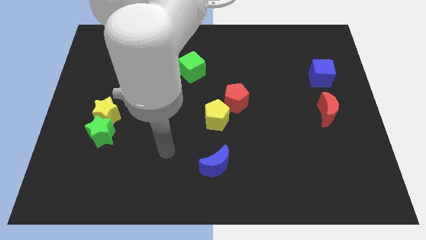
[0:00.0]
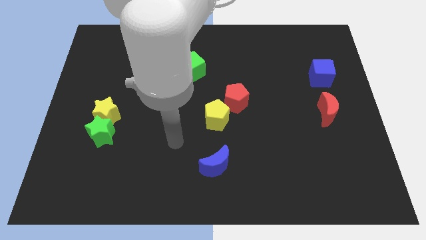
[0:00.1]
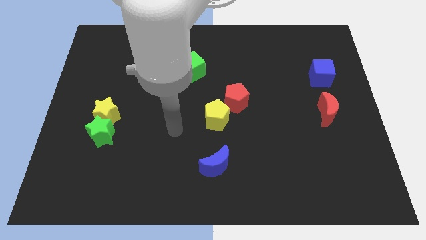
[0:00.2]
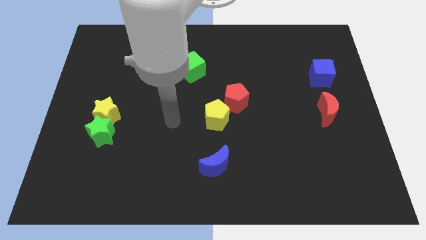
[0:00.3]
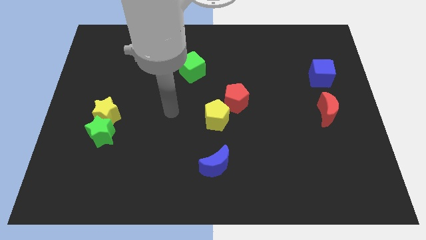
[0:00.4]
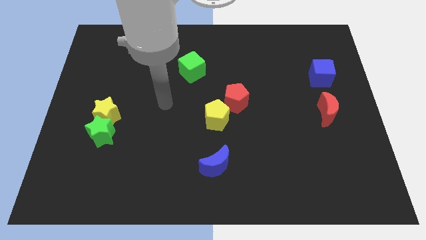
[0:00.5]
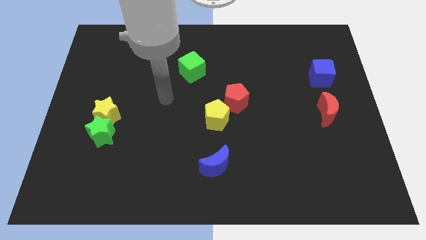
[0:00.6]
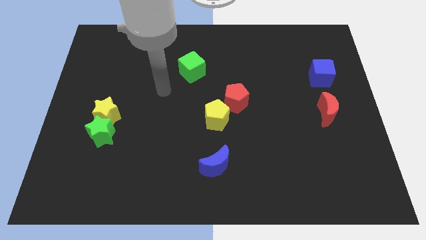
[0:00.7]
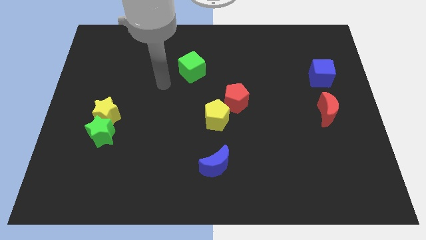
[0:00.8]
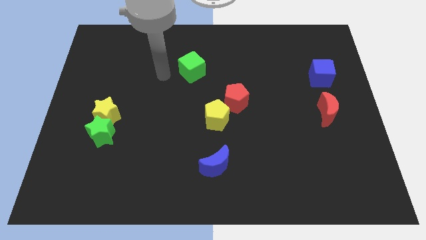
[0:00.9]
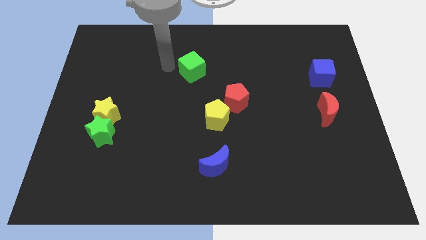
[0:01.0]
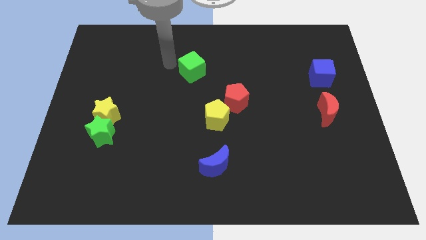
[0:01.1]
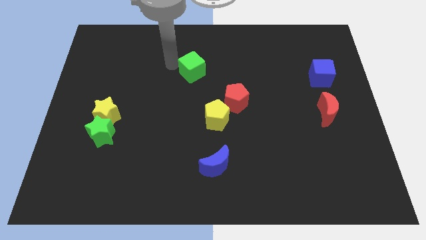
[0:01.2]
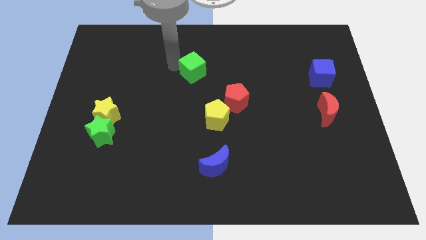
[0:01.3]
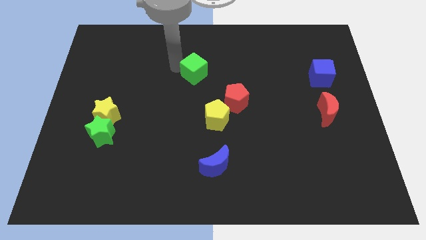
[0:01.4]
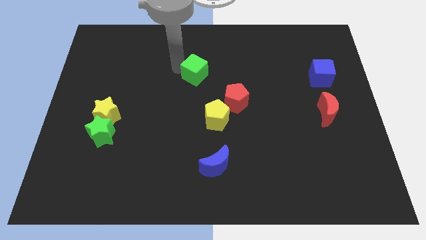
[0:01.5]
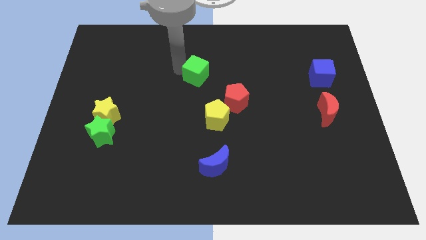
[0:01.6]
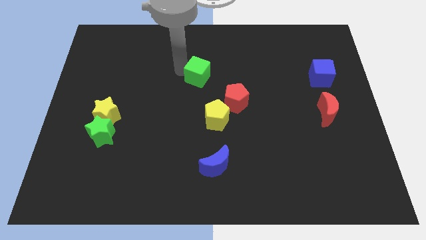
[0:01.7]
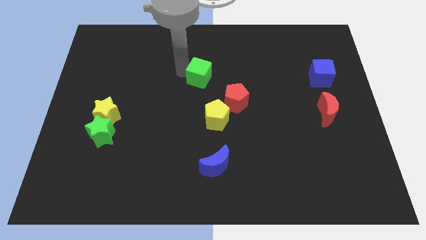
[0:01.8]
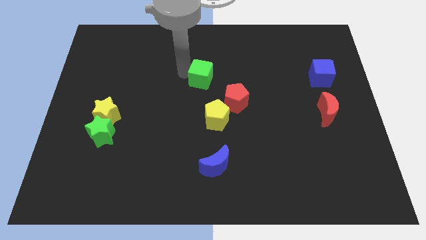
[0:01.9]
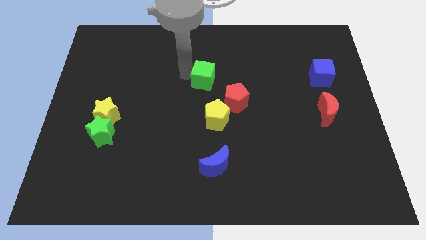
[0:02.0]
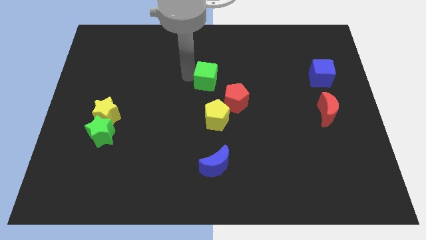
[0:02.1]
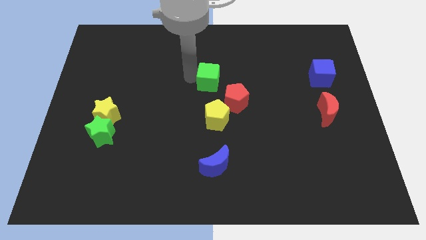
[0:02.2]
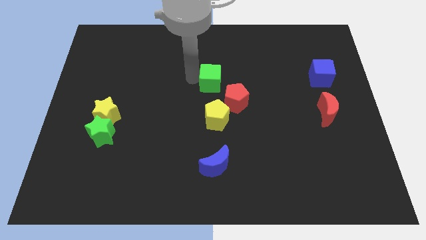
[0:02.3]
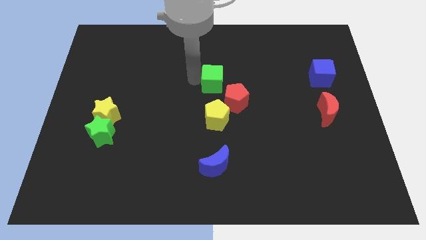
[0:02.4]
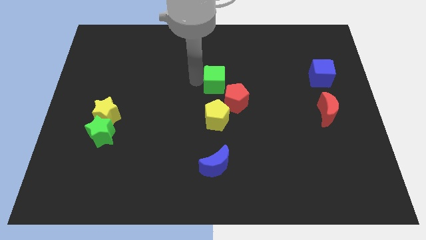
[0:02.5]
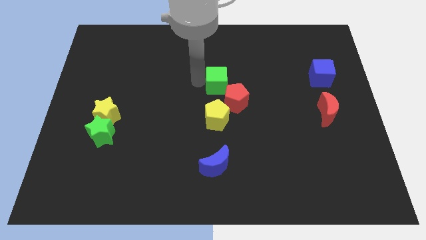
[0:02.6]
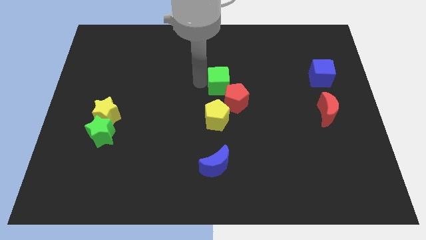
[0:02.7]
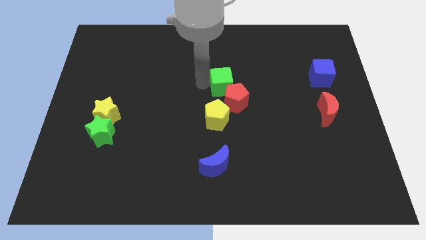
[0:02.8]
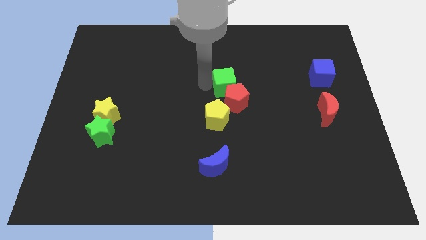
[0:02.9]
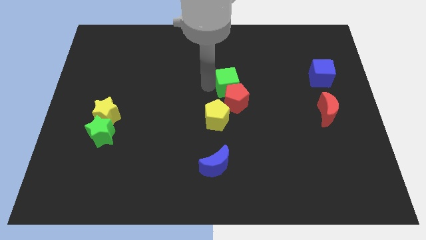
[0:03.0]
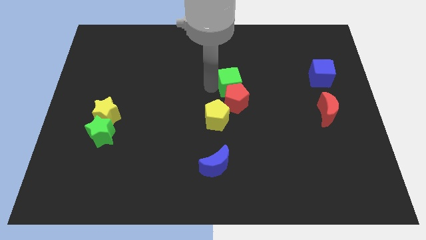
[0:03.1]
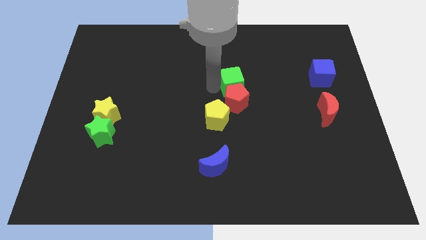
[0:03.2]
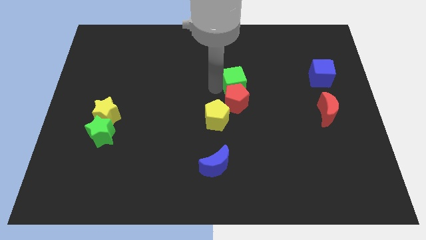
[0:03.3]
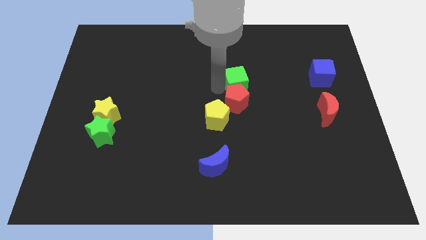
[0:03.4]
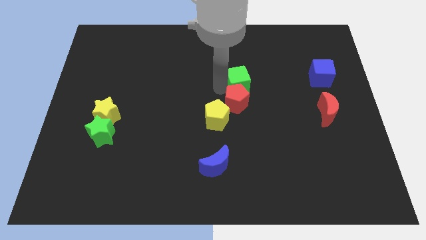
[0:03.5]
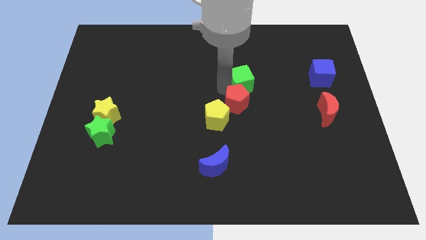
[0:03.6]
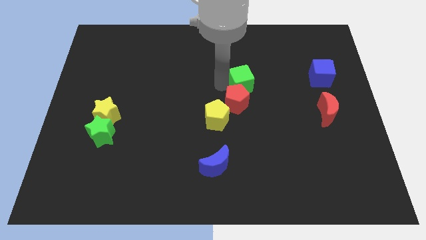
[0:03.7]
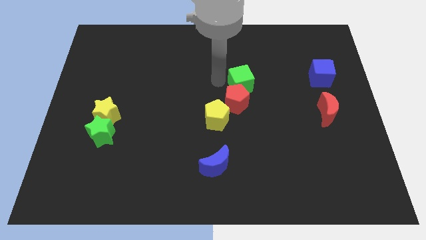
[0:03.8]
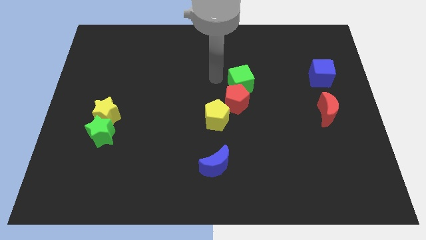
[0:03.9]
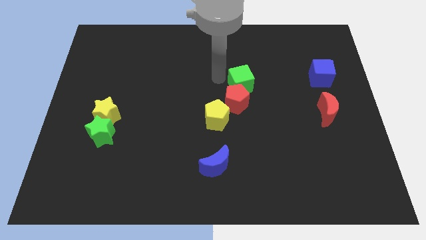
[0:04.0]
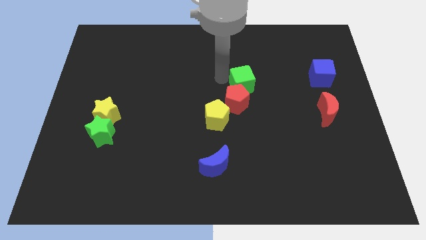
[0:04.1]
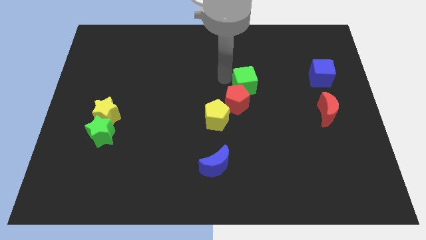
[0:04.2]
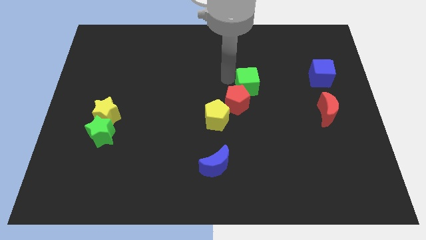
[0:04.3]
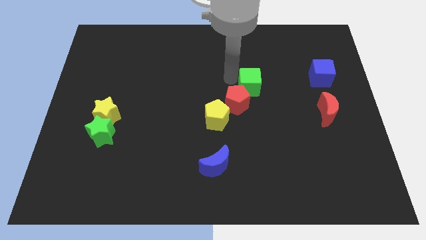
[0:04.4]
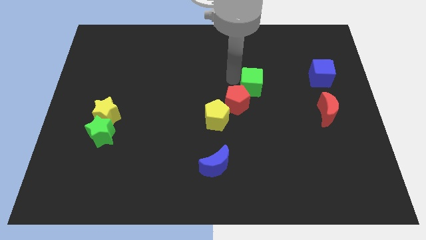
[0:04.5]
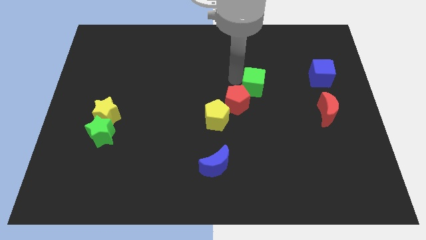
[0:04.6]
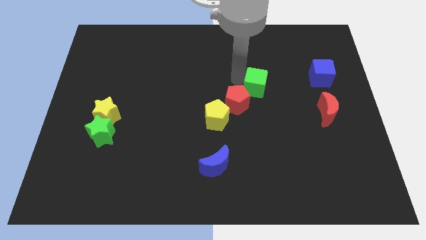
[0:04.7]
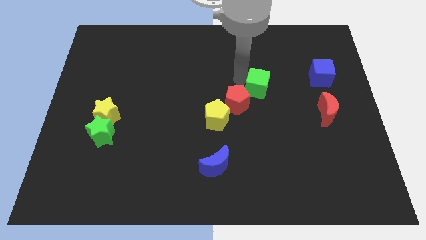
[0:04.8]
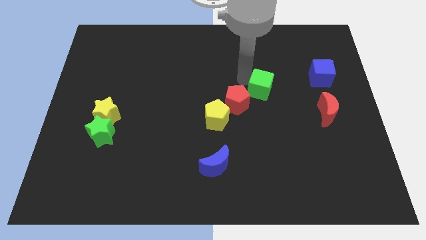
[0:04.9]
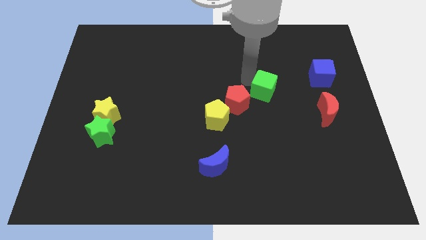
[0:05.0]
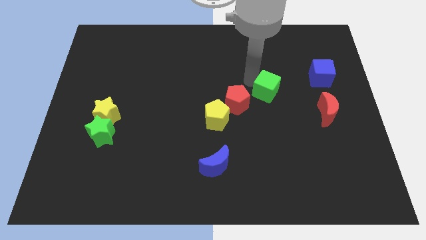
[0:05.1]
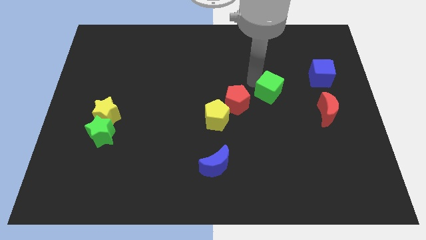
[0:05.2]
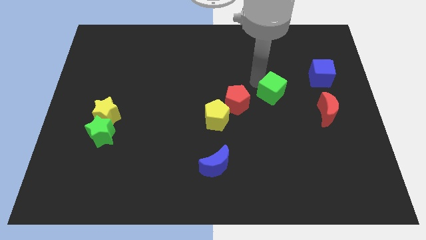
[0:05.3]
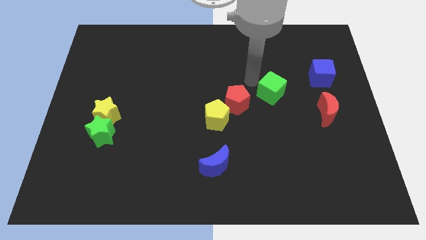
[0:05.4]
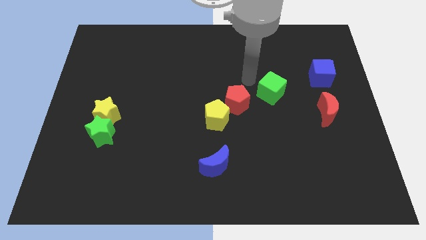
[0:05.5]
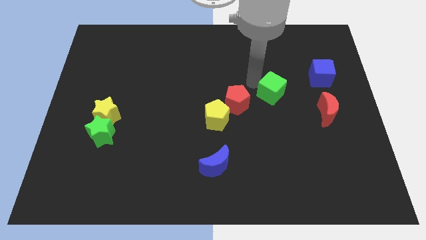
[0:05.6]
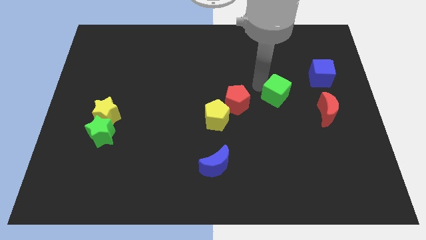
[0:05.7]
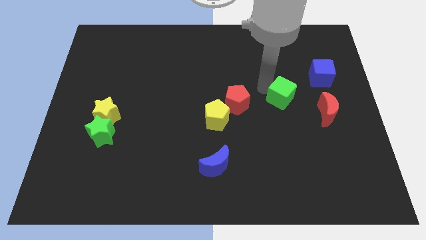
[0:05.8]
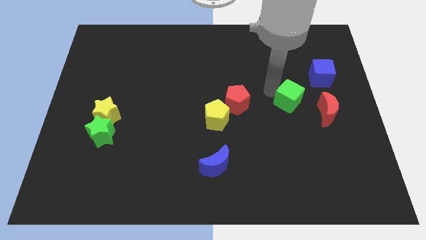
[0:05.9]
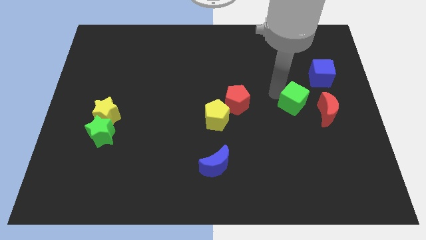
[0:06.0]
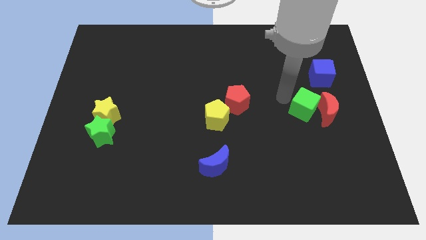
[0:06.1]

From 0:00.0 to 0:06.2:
push the green cube next to the red moon

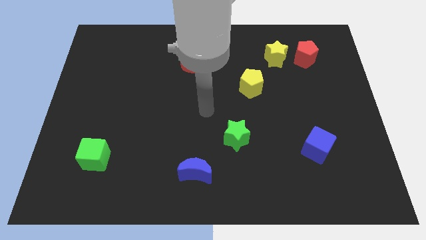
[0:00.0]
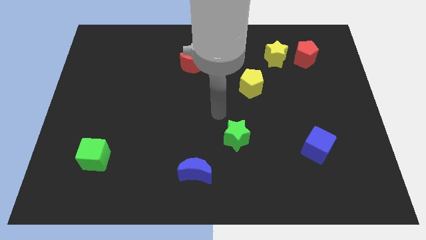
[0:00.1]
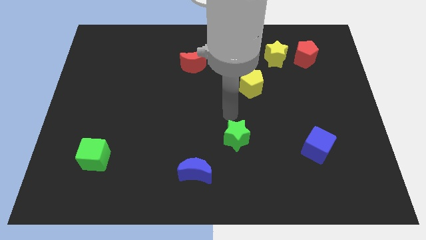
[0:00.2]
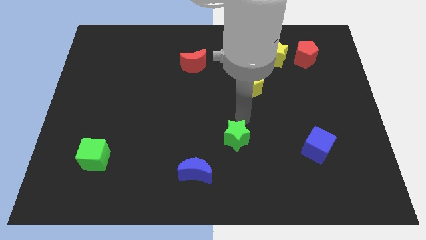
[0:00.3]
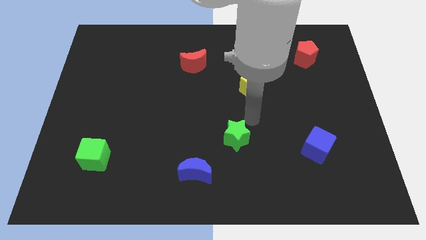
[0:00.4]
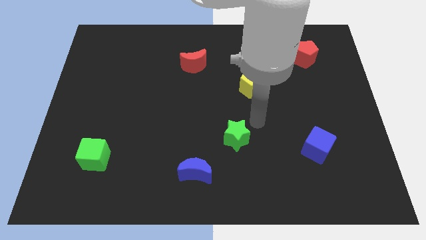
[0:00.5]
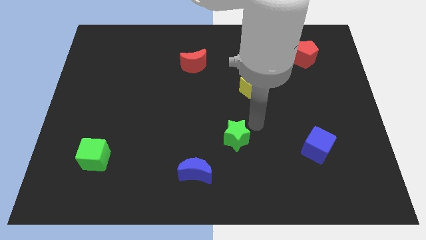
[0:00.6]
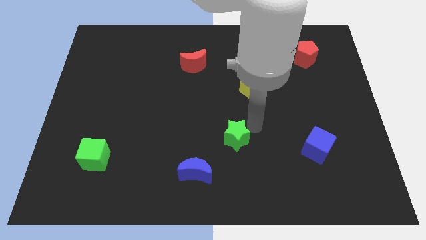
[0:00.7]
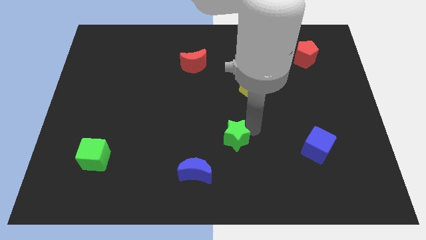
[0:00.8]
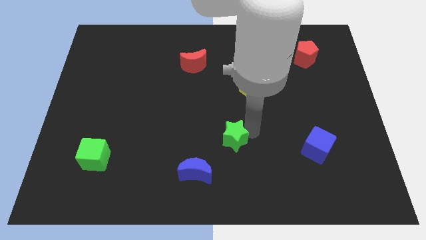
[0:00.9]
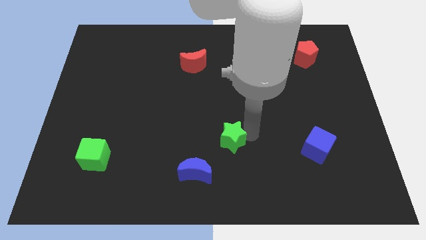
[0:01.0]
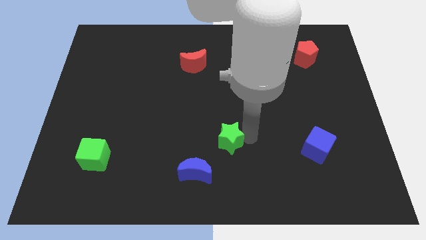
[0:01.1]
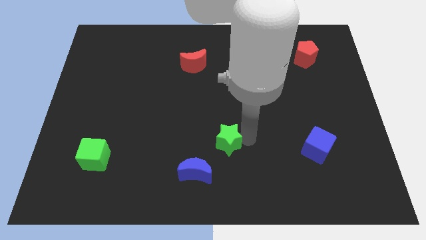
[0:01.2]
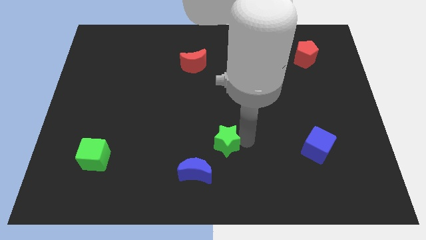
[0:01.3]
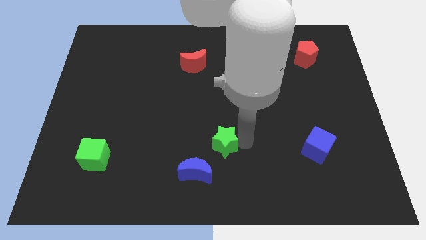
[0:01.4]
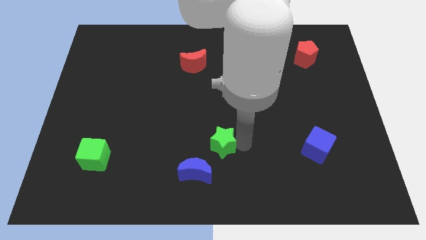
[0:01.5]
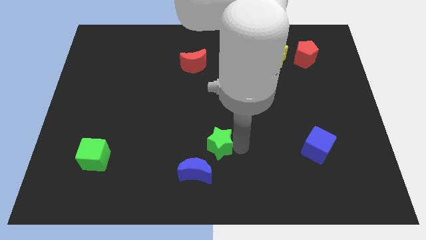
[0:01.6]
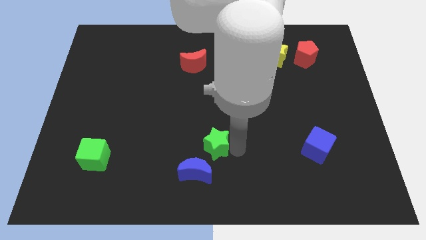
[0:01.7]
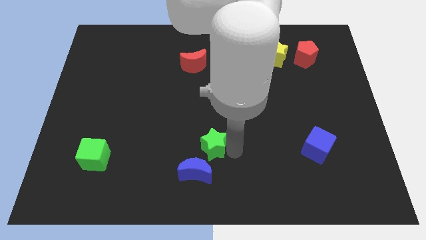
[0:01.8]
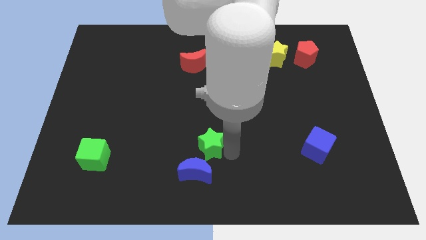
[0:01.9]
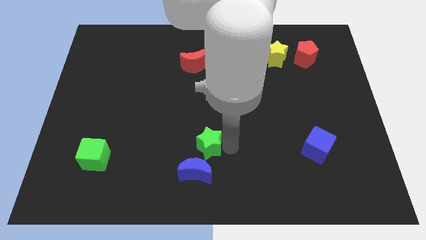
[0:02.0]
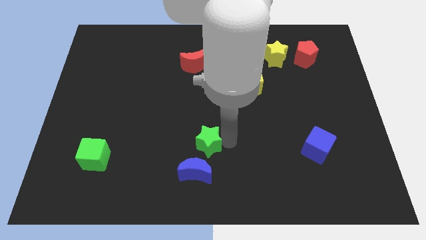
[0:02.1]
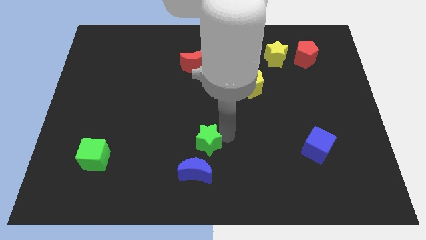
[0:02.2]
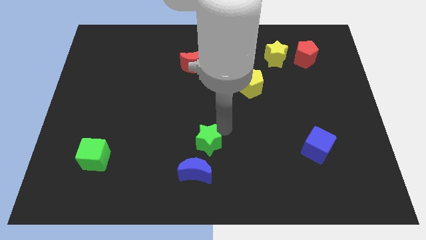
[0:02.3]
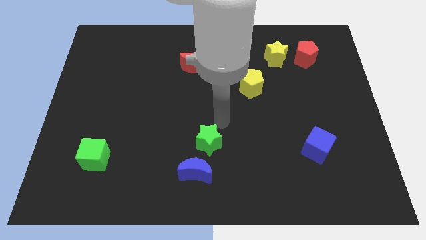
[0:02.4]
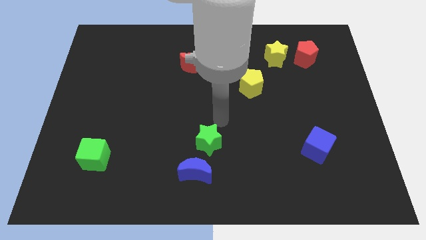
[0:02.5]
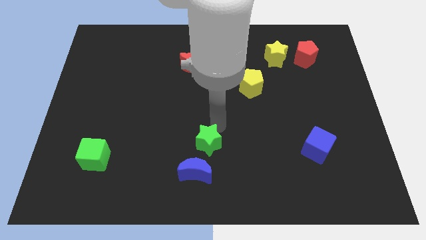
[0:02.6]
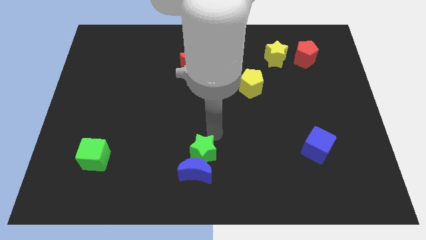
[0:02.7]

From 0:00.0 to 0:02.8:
push the green star to the blue moon
